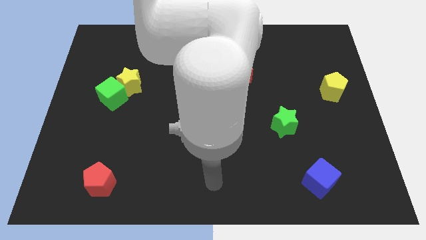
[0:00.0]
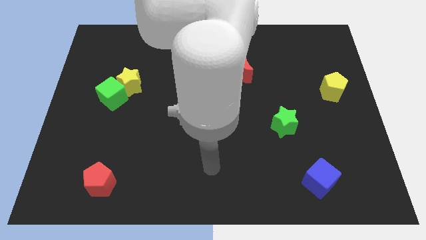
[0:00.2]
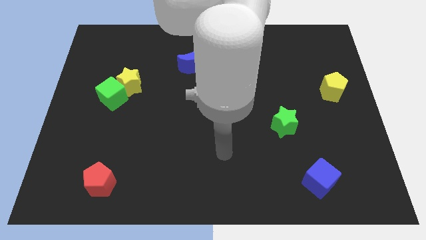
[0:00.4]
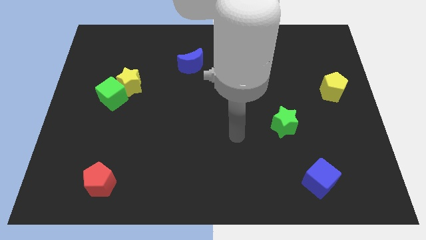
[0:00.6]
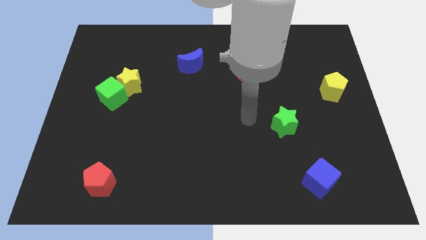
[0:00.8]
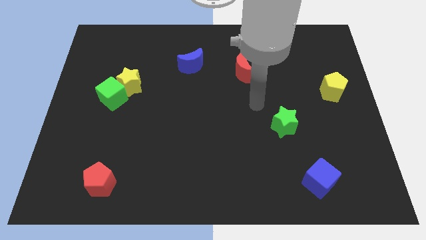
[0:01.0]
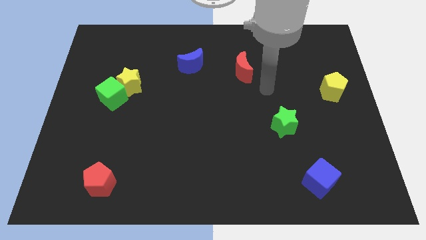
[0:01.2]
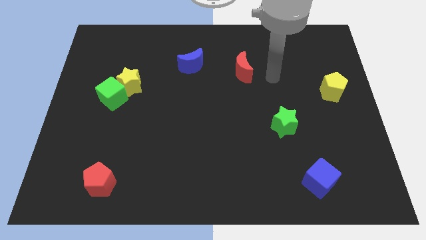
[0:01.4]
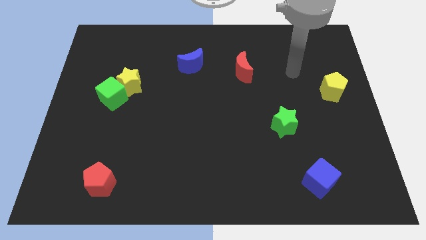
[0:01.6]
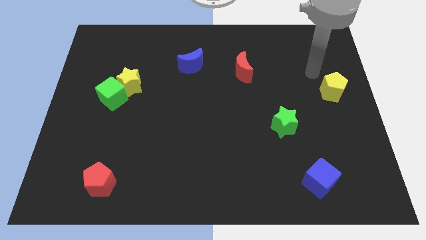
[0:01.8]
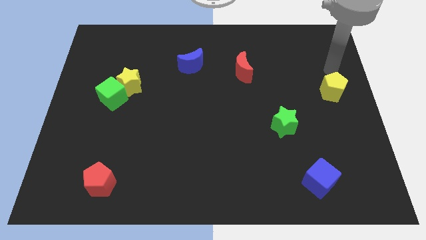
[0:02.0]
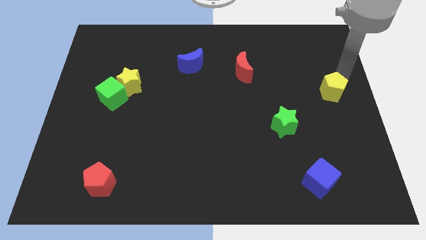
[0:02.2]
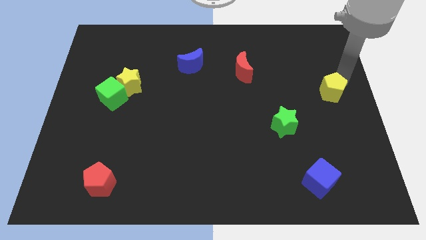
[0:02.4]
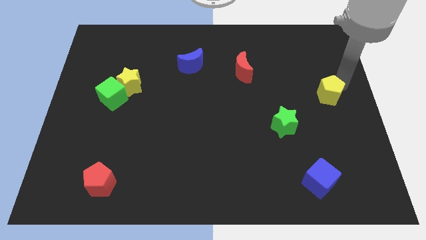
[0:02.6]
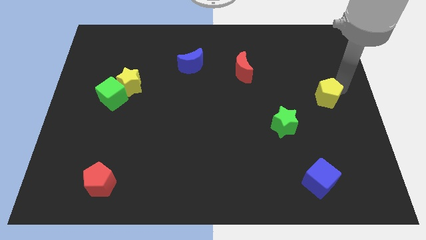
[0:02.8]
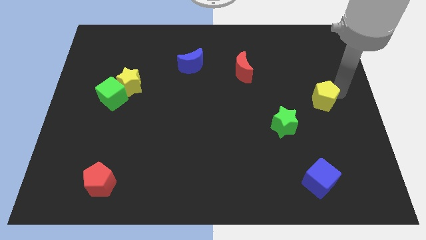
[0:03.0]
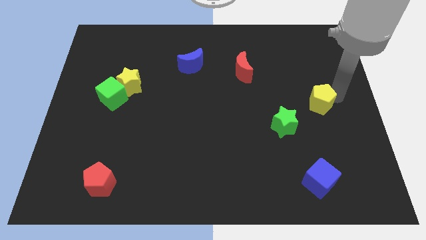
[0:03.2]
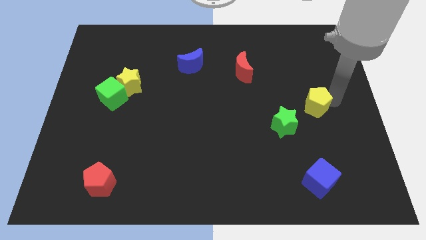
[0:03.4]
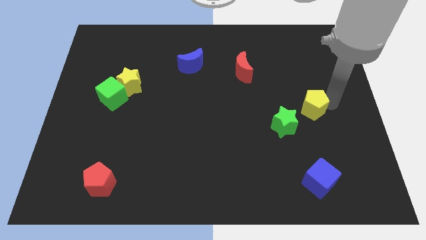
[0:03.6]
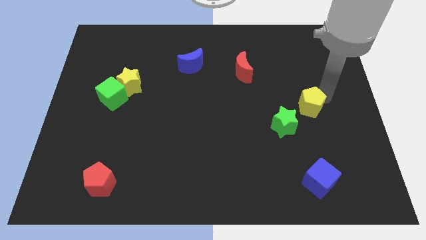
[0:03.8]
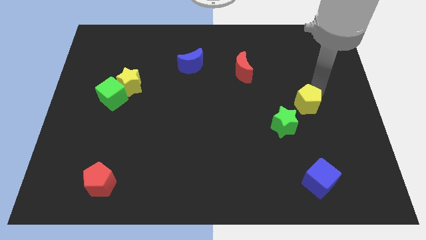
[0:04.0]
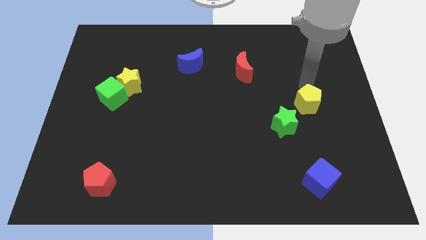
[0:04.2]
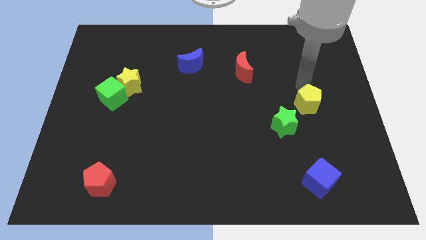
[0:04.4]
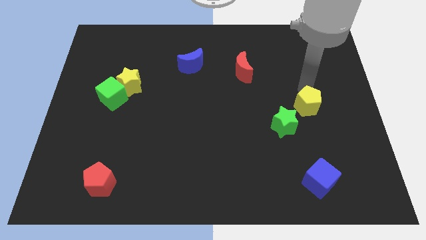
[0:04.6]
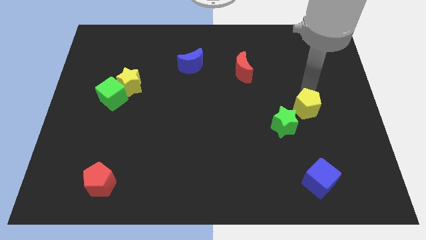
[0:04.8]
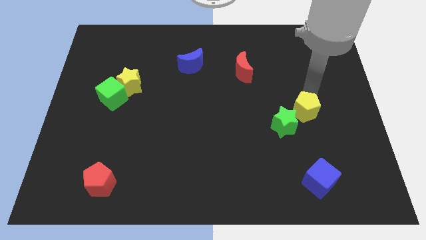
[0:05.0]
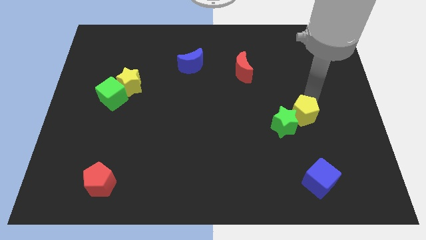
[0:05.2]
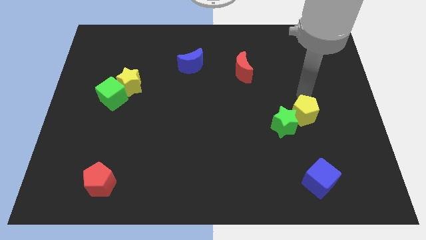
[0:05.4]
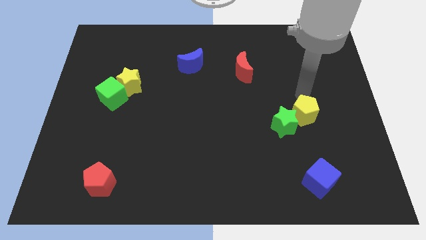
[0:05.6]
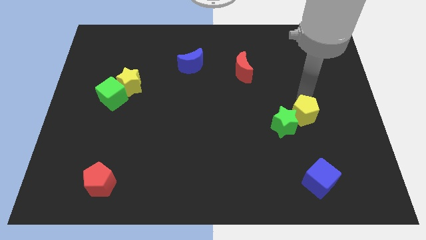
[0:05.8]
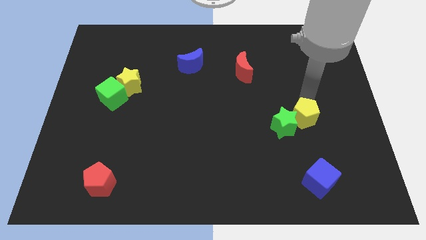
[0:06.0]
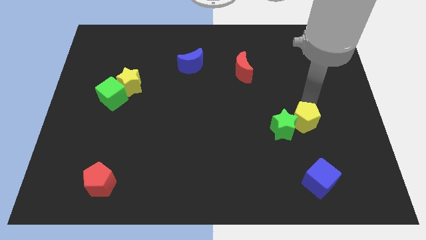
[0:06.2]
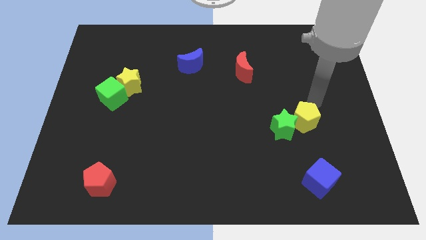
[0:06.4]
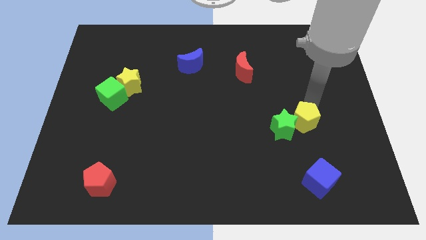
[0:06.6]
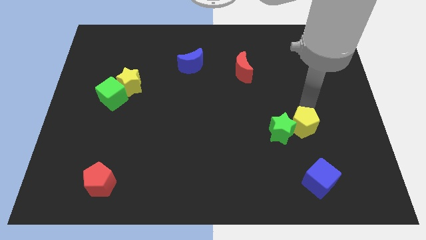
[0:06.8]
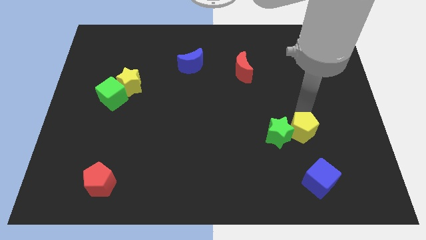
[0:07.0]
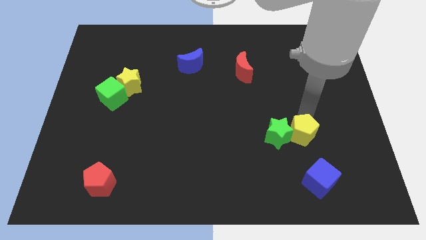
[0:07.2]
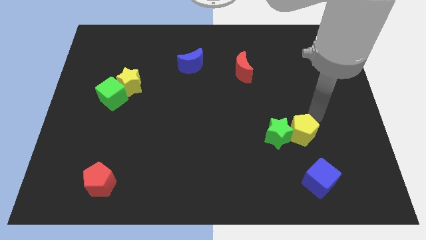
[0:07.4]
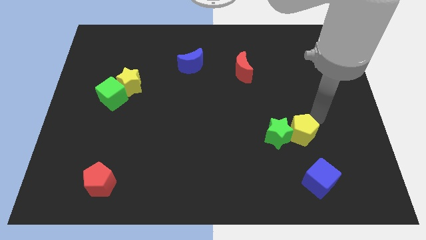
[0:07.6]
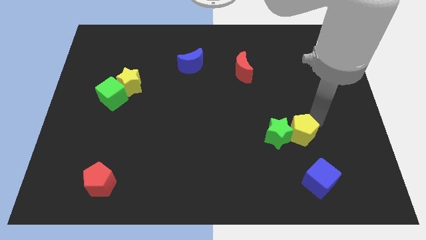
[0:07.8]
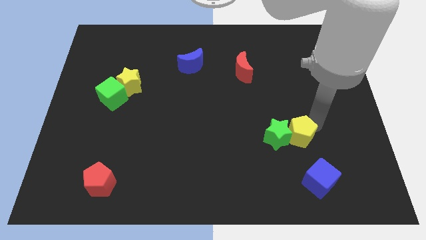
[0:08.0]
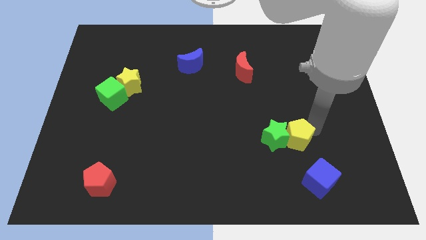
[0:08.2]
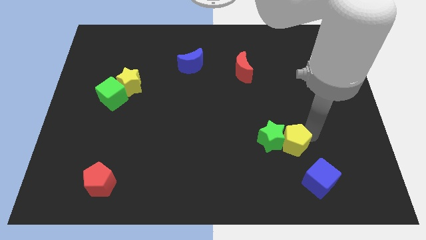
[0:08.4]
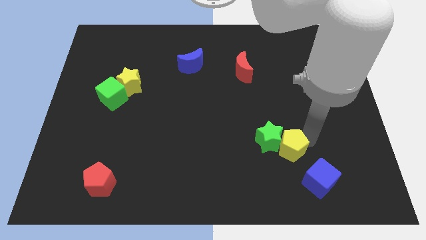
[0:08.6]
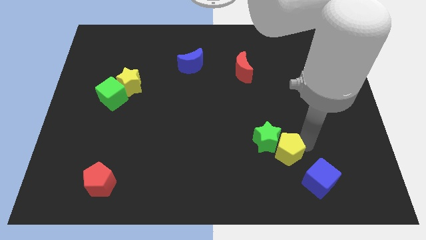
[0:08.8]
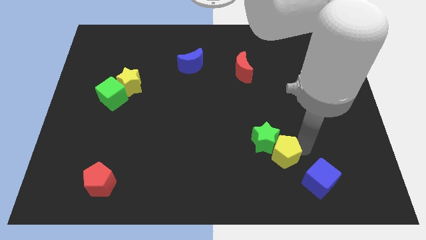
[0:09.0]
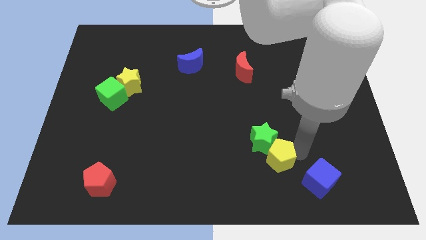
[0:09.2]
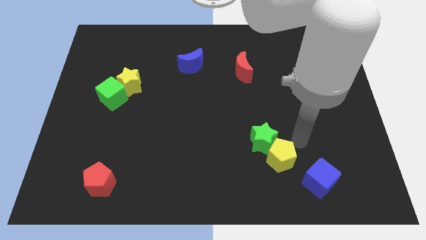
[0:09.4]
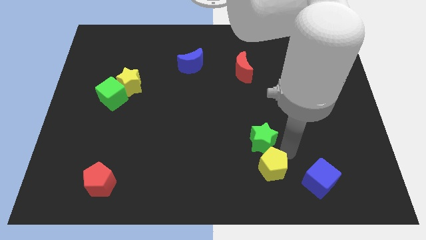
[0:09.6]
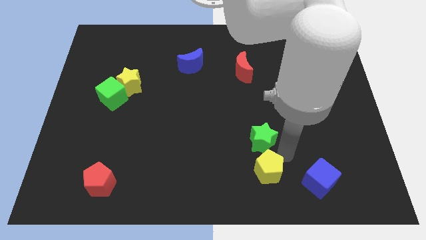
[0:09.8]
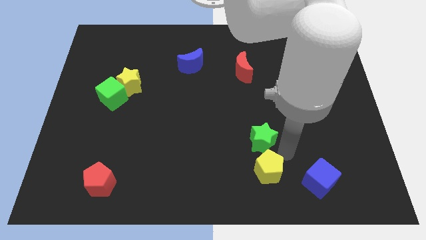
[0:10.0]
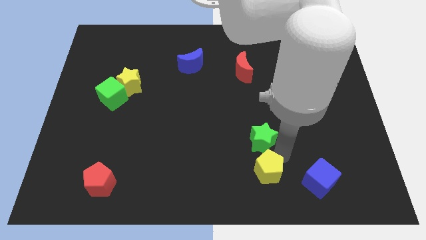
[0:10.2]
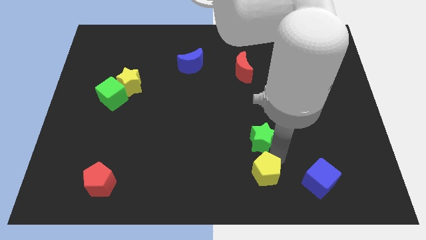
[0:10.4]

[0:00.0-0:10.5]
push the yellow pentagon to the bottom side

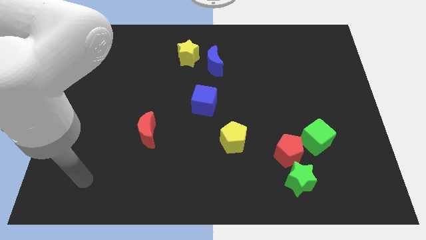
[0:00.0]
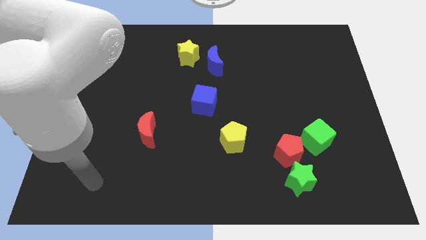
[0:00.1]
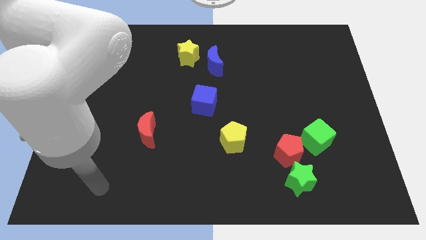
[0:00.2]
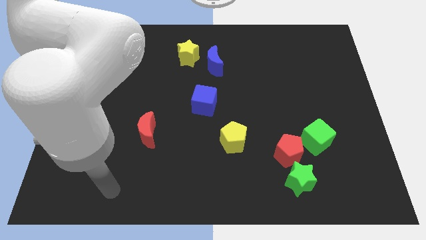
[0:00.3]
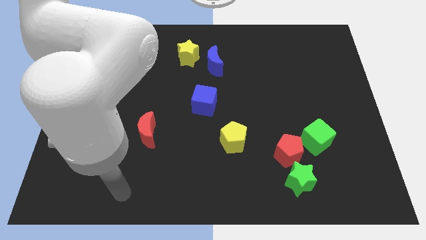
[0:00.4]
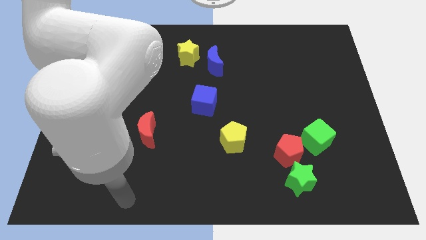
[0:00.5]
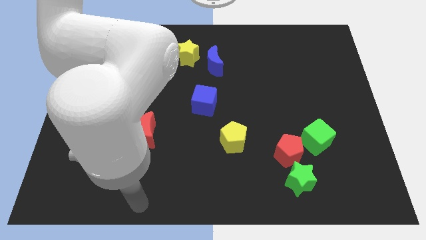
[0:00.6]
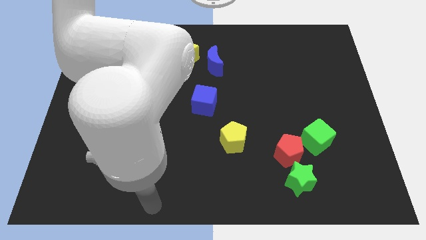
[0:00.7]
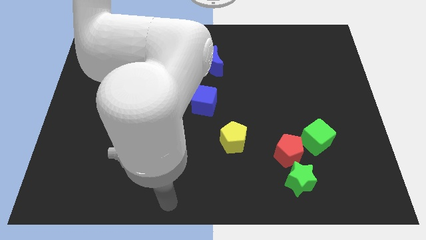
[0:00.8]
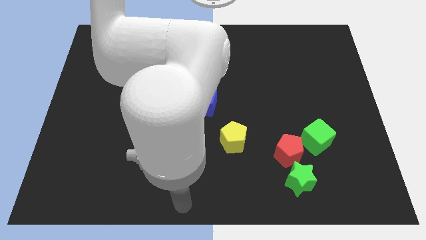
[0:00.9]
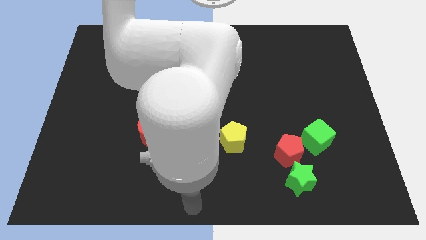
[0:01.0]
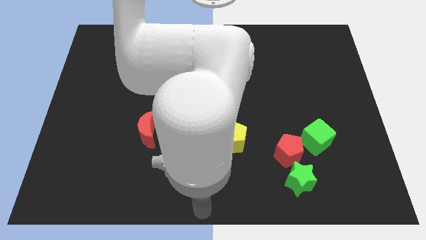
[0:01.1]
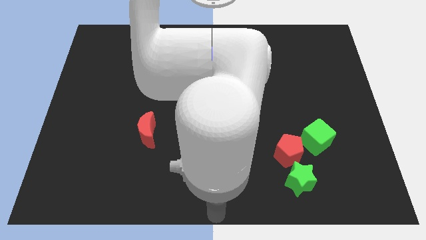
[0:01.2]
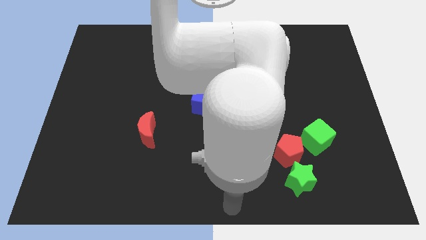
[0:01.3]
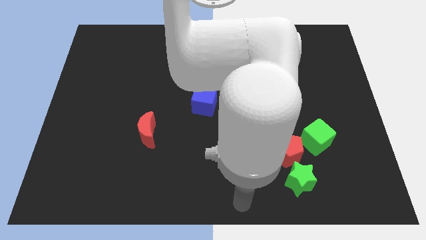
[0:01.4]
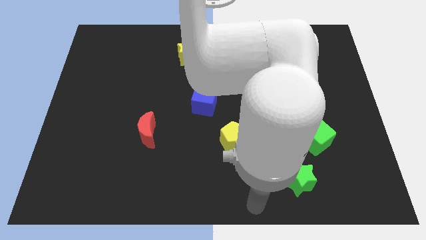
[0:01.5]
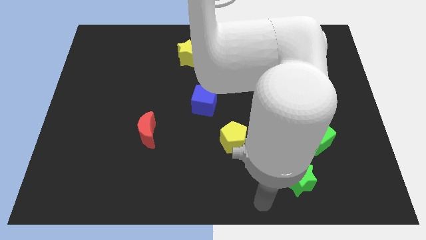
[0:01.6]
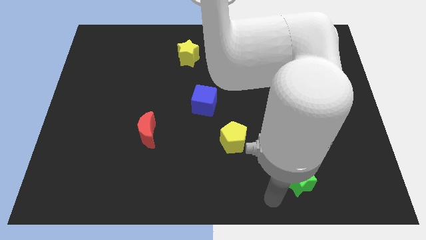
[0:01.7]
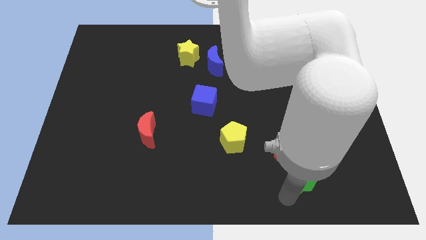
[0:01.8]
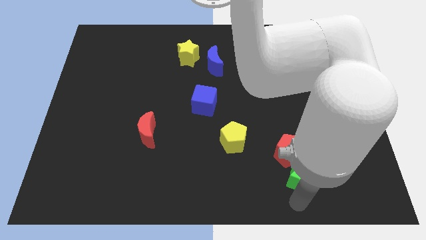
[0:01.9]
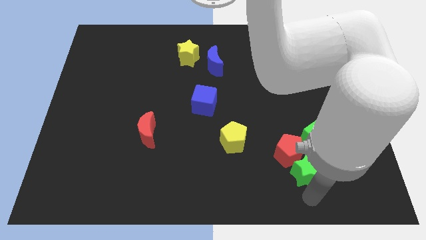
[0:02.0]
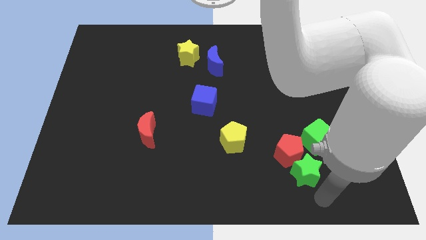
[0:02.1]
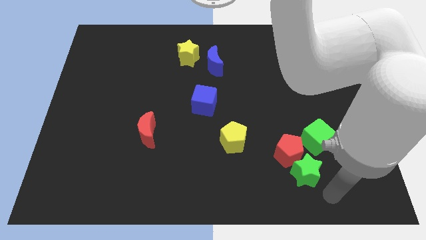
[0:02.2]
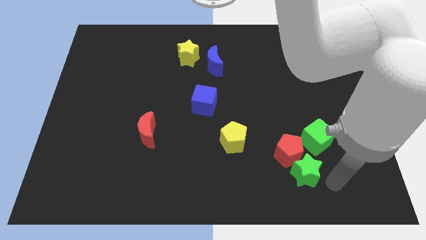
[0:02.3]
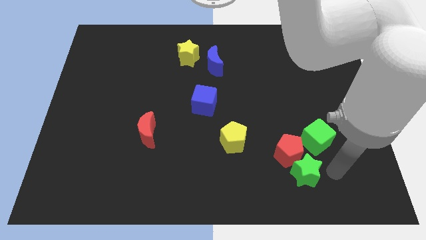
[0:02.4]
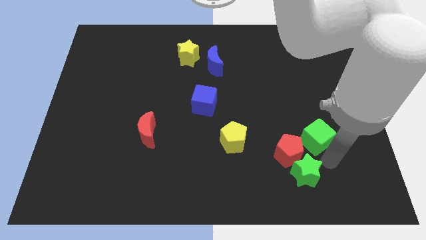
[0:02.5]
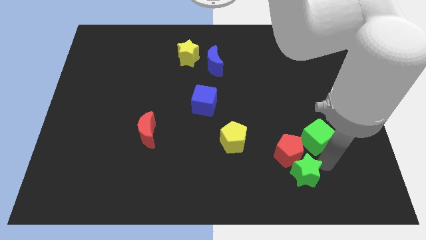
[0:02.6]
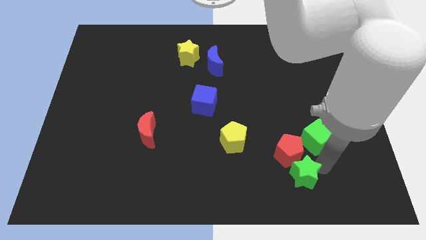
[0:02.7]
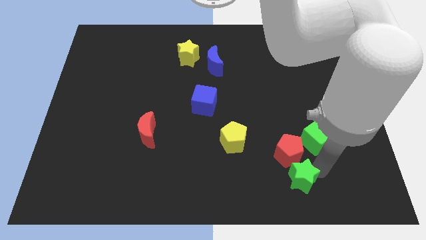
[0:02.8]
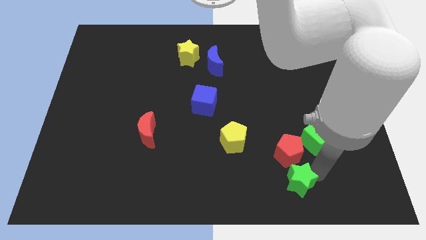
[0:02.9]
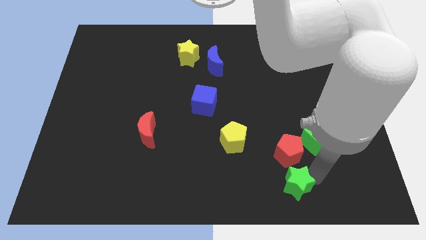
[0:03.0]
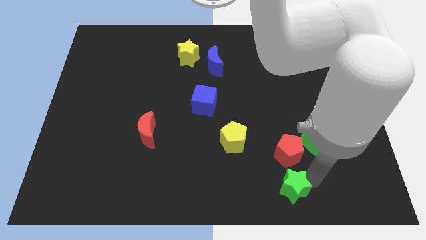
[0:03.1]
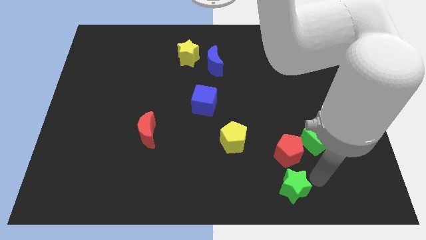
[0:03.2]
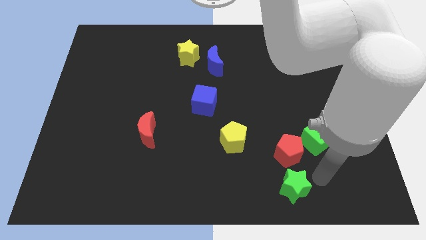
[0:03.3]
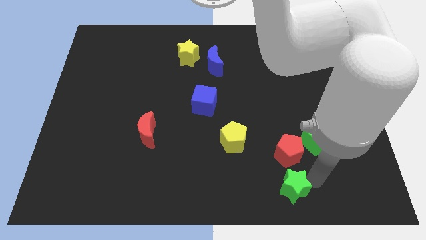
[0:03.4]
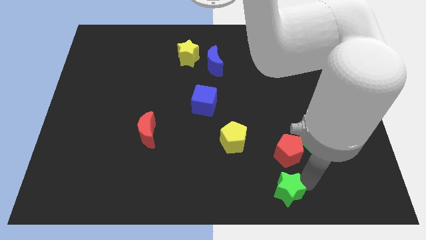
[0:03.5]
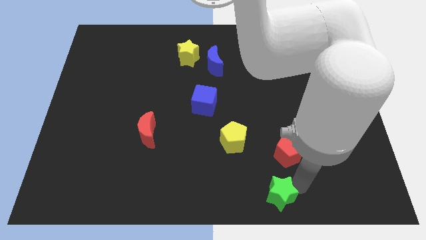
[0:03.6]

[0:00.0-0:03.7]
put the green star to the bottom
